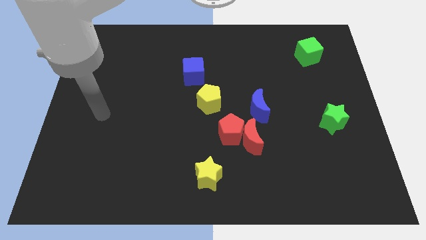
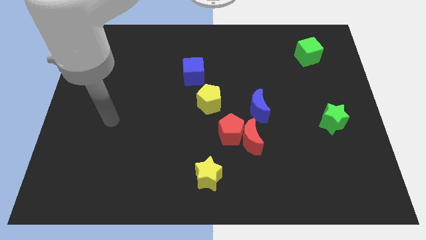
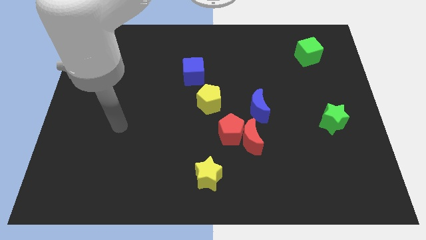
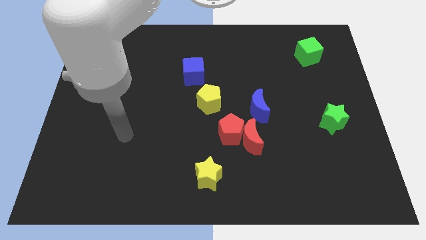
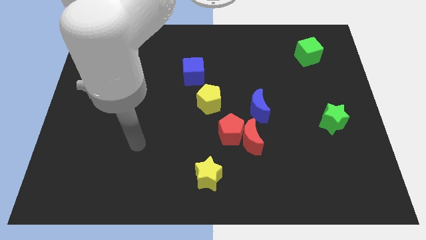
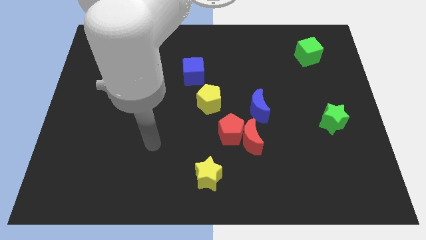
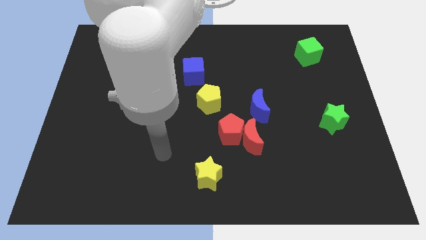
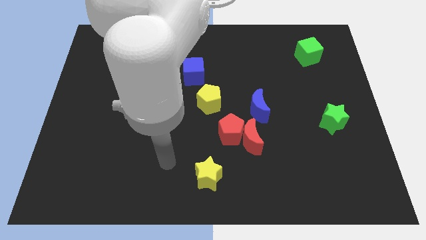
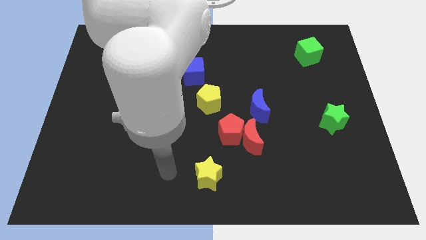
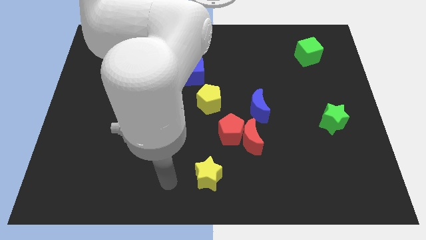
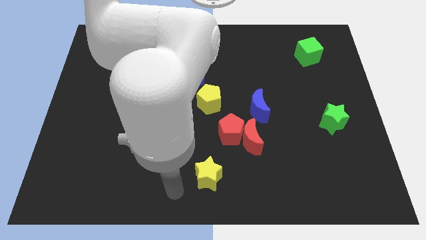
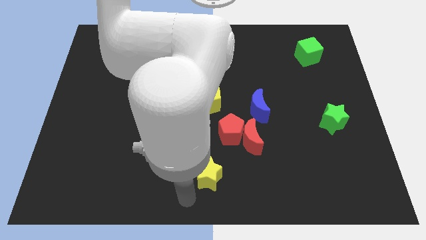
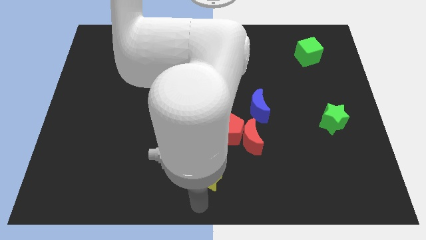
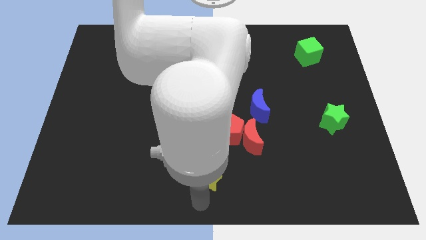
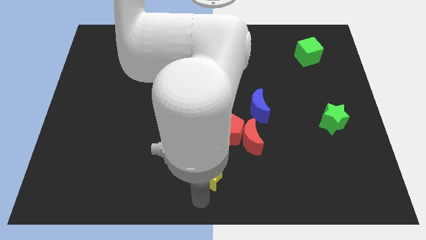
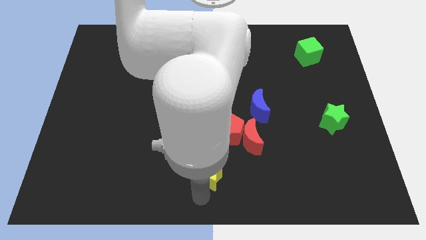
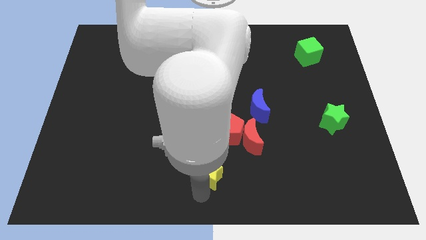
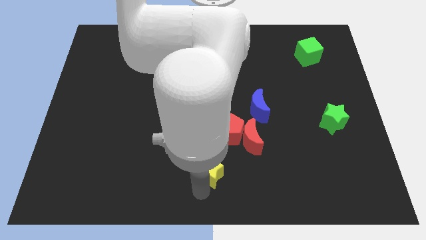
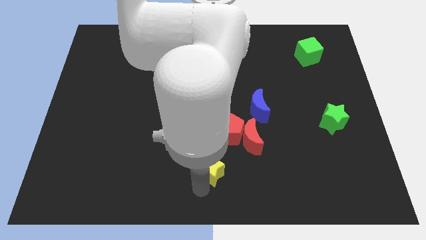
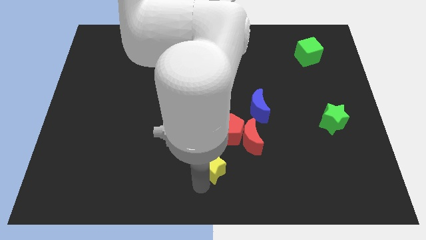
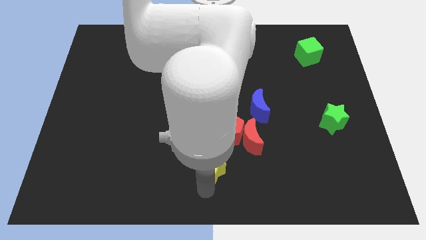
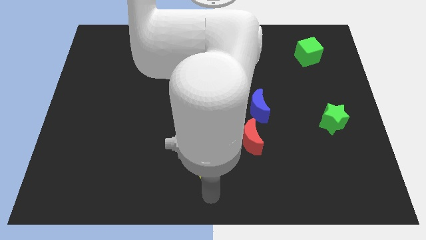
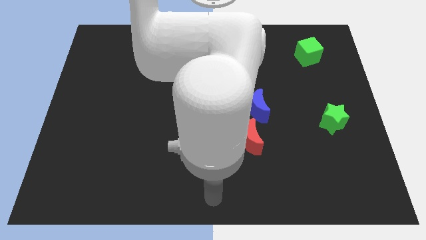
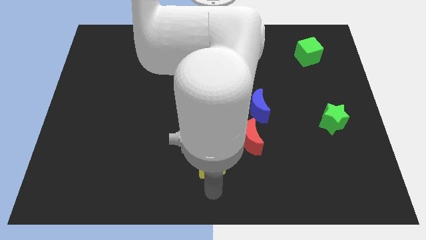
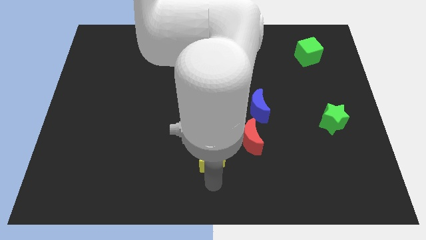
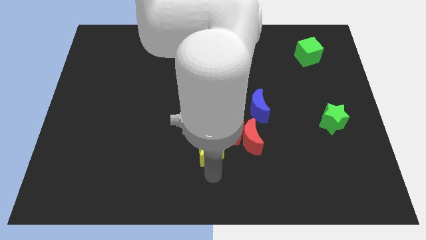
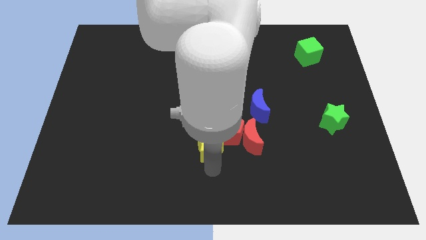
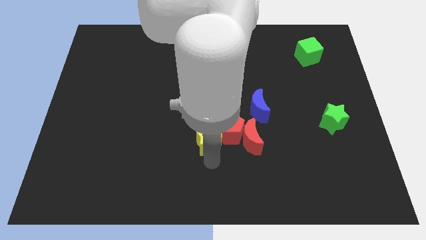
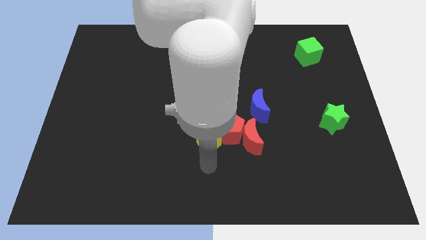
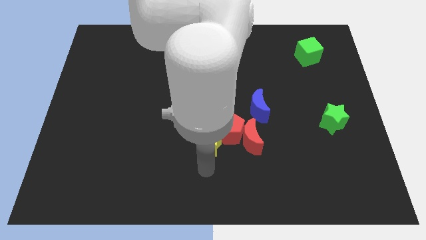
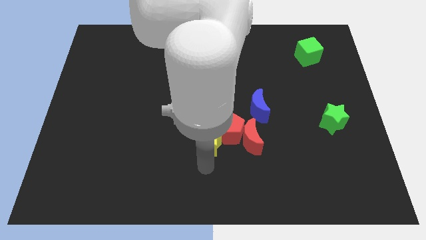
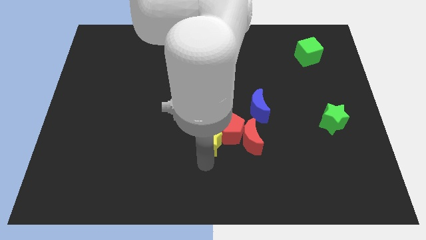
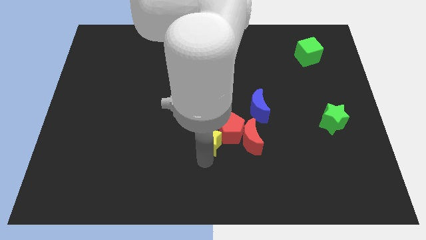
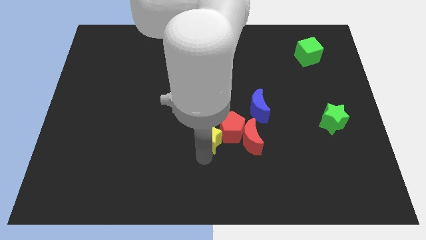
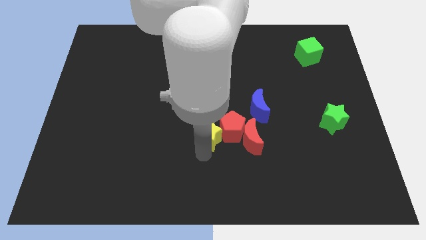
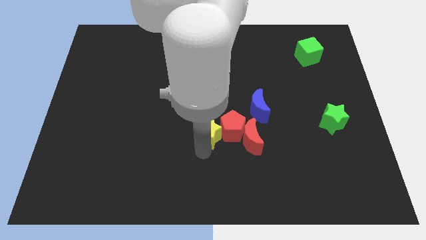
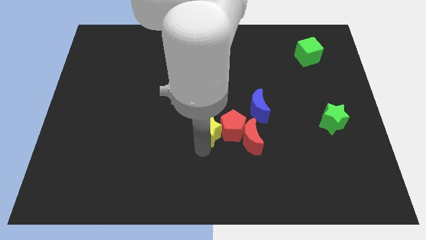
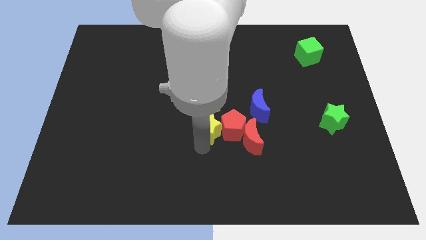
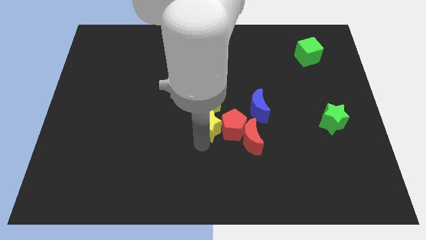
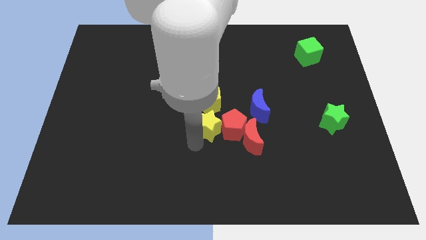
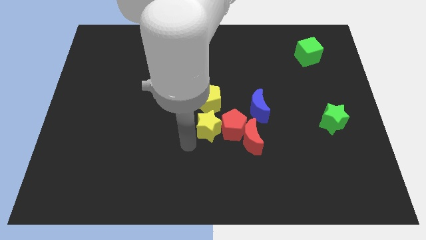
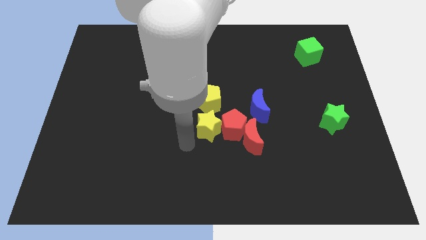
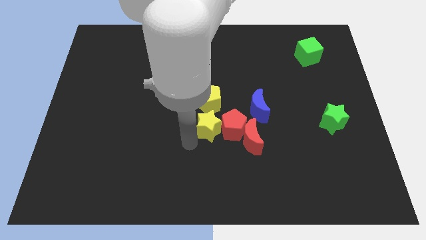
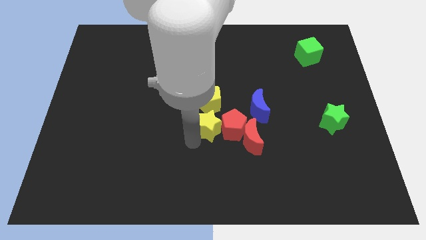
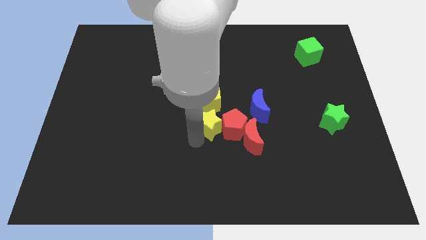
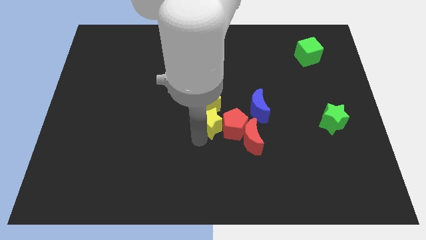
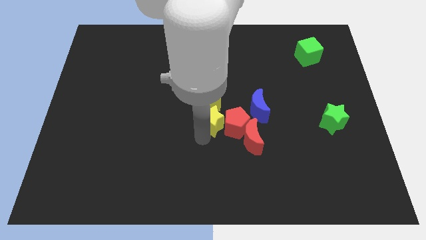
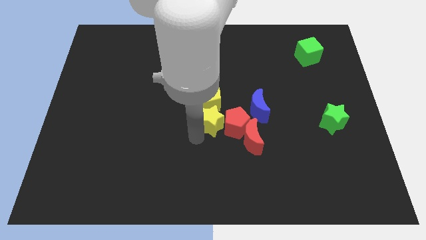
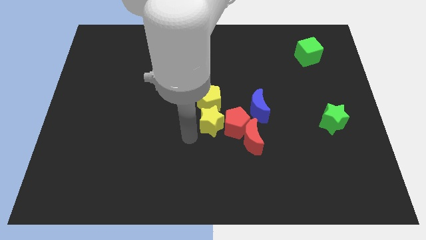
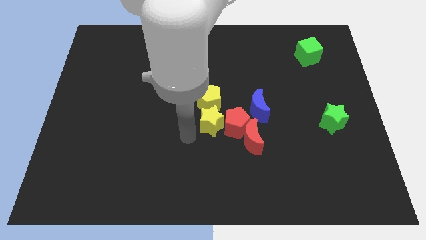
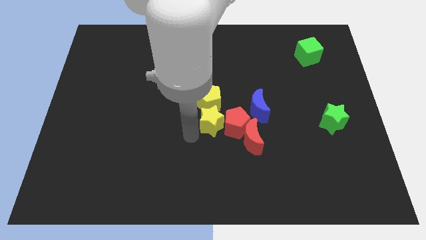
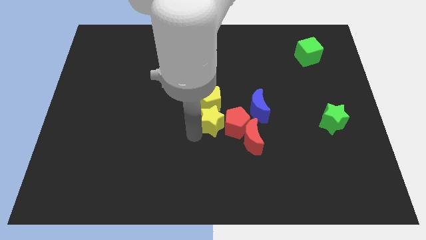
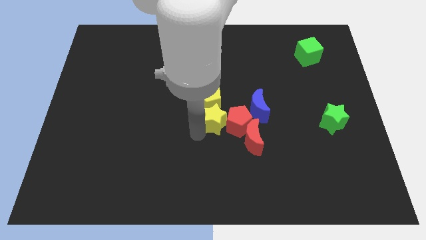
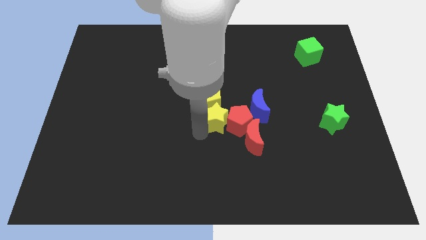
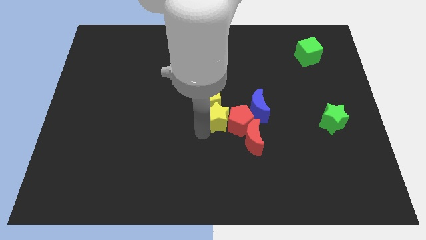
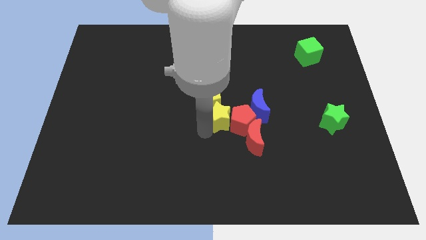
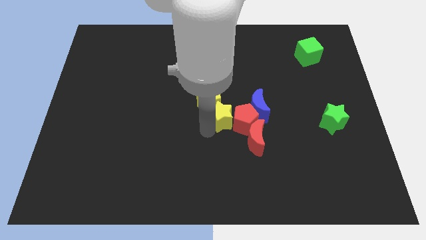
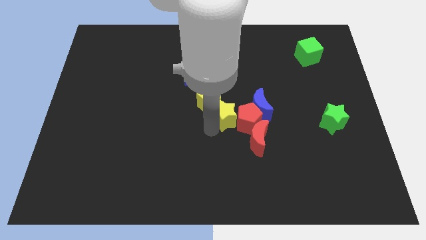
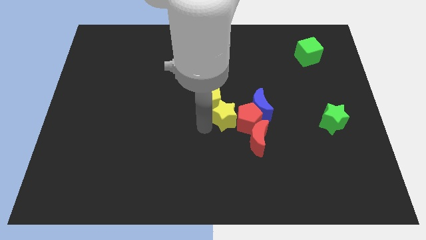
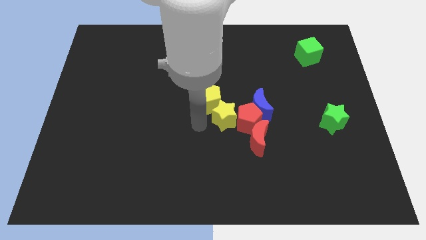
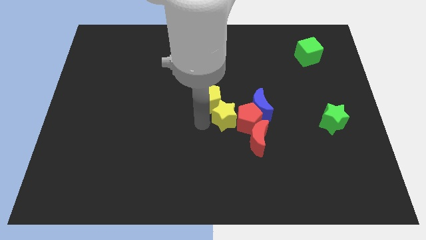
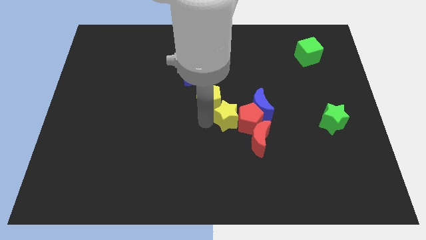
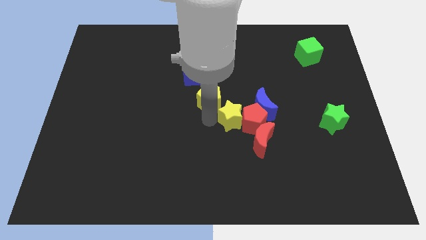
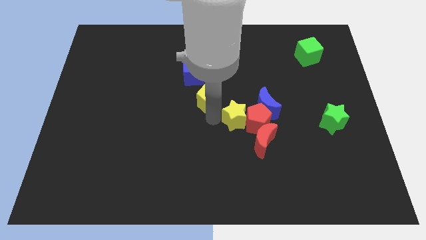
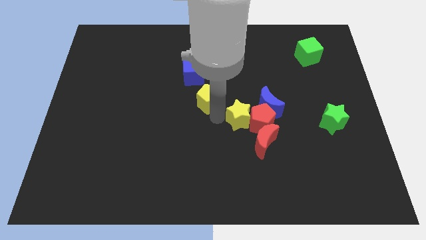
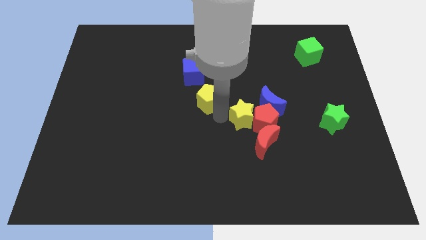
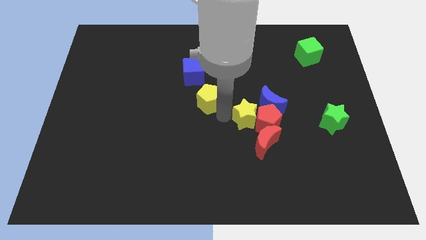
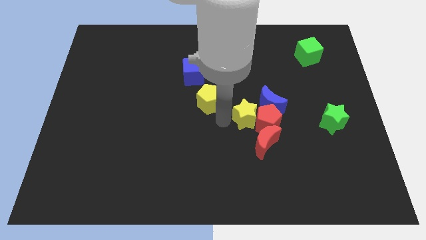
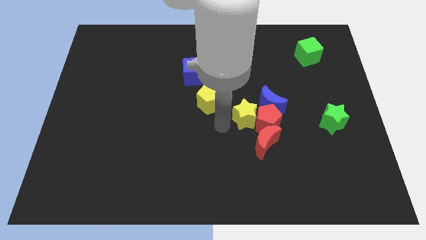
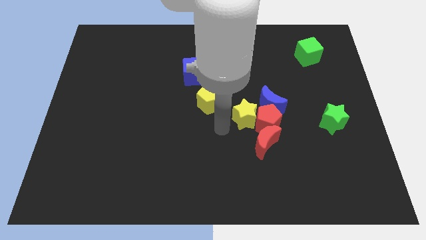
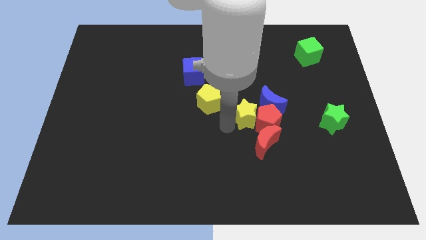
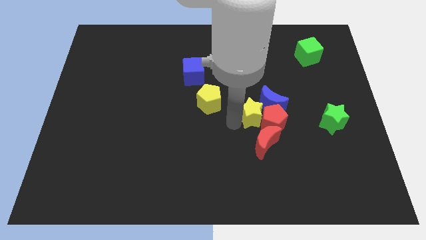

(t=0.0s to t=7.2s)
push the yellow star to the blue moon
